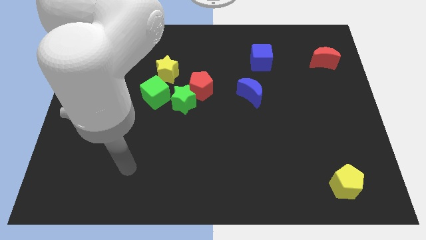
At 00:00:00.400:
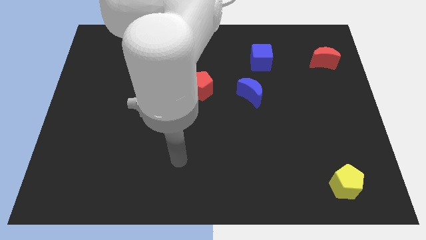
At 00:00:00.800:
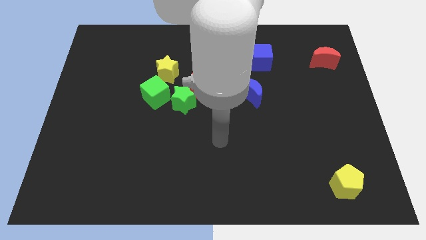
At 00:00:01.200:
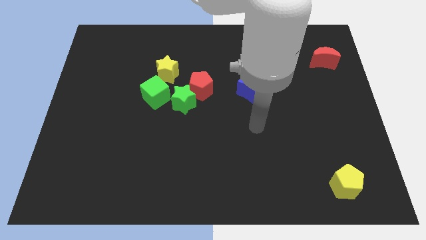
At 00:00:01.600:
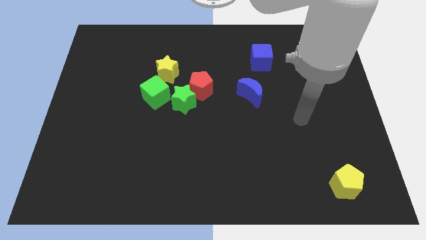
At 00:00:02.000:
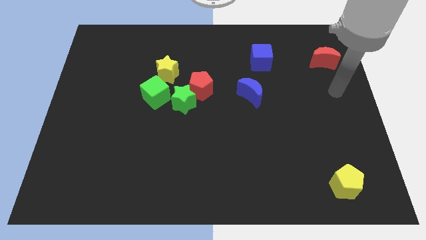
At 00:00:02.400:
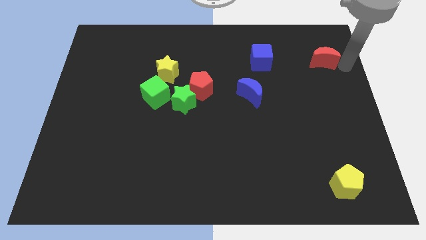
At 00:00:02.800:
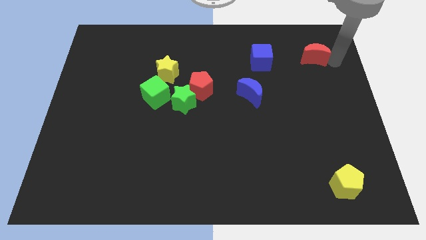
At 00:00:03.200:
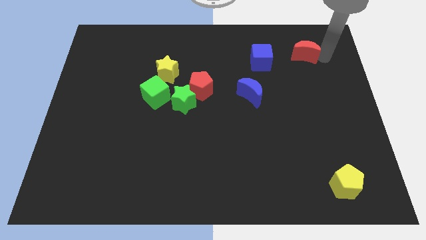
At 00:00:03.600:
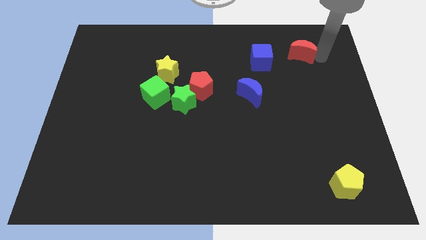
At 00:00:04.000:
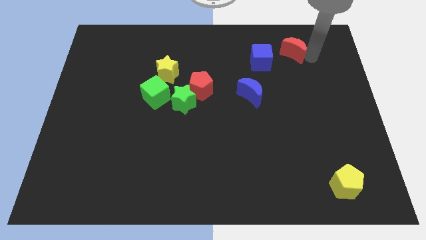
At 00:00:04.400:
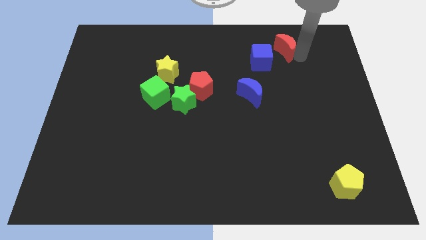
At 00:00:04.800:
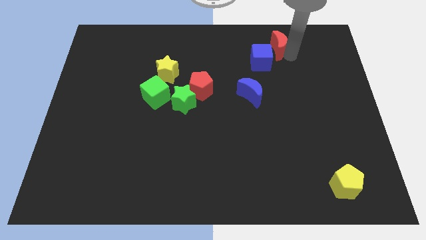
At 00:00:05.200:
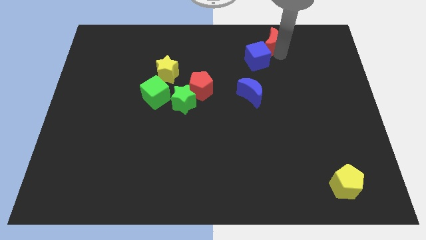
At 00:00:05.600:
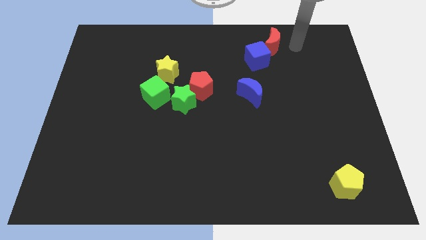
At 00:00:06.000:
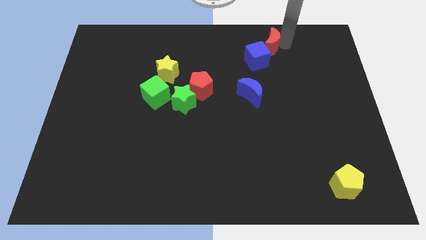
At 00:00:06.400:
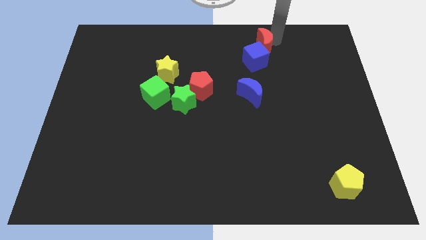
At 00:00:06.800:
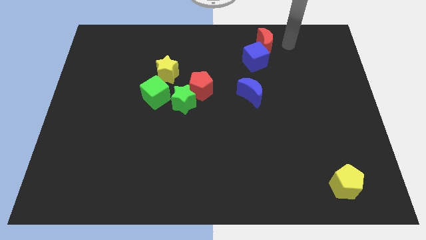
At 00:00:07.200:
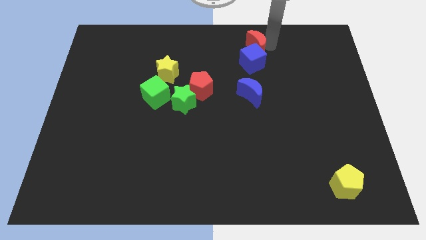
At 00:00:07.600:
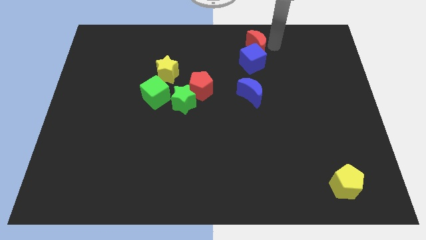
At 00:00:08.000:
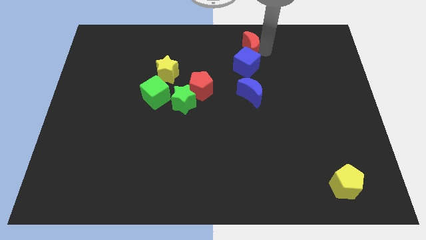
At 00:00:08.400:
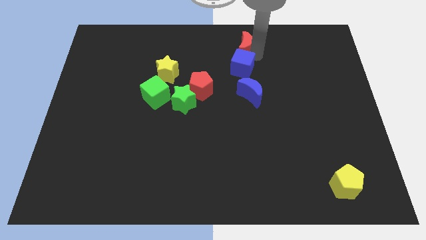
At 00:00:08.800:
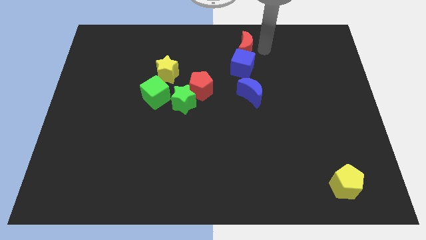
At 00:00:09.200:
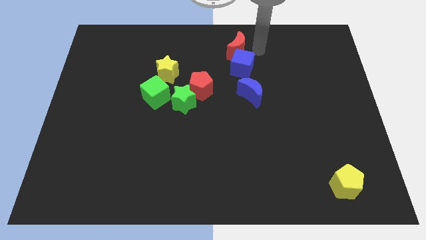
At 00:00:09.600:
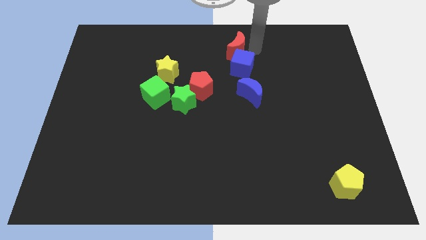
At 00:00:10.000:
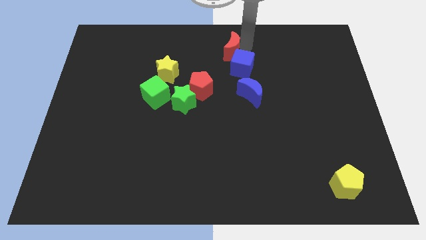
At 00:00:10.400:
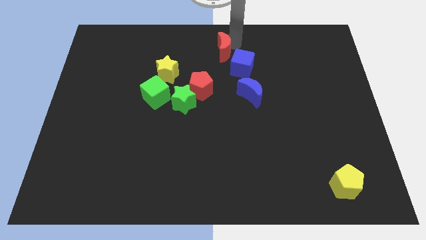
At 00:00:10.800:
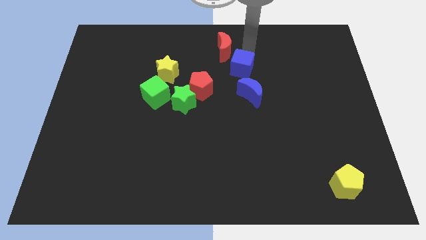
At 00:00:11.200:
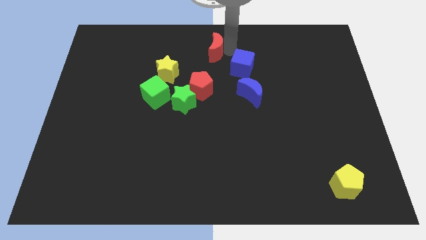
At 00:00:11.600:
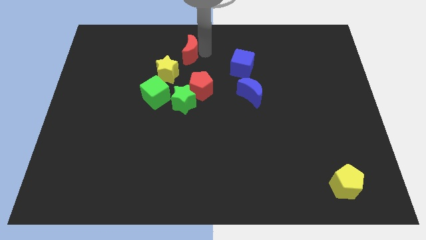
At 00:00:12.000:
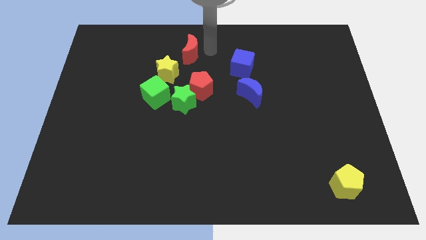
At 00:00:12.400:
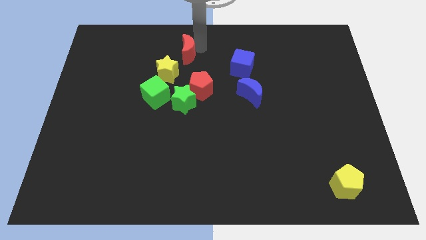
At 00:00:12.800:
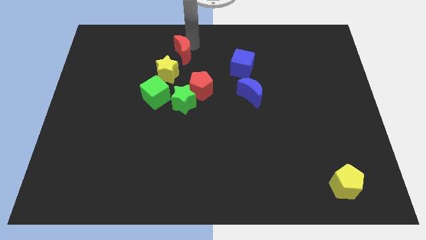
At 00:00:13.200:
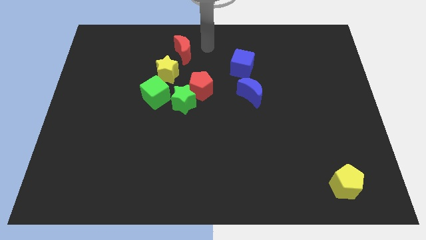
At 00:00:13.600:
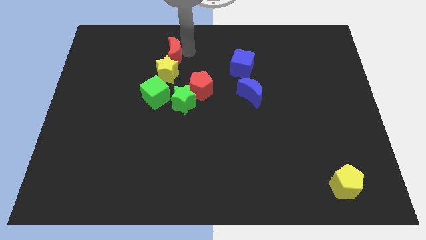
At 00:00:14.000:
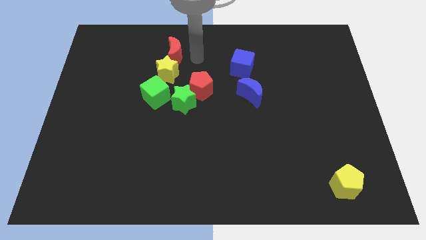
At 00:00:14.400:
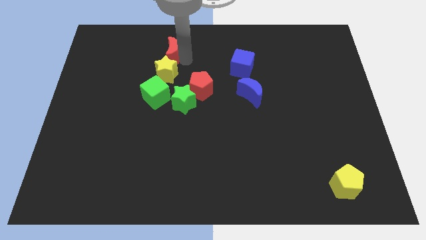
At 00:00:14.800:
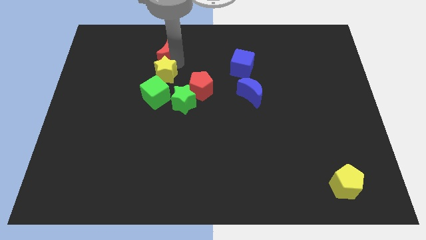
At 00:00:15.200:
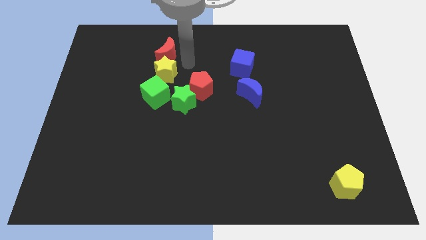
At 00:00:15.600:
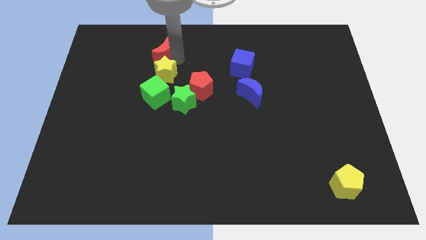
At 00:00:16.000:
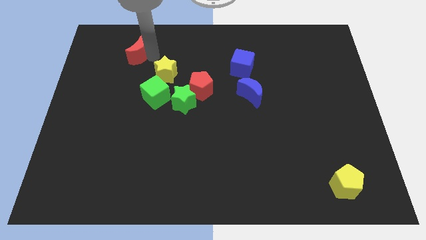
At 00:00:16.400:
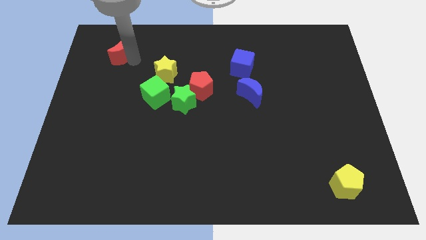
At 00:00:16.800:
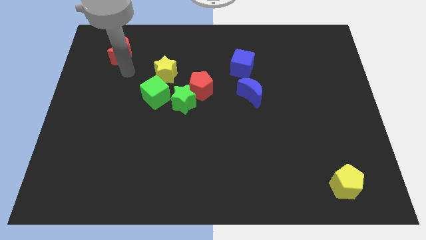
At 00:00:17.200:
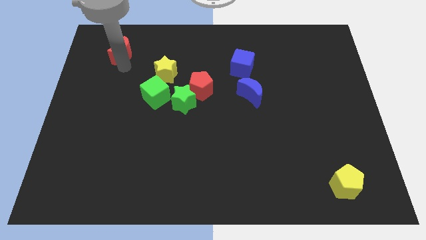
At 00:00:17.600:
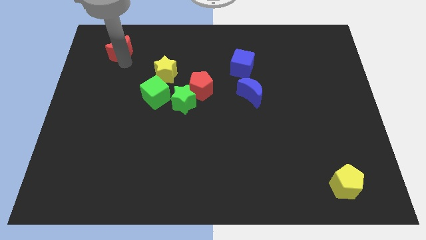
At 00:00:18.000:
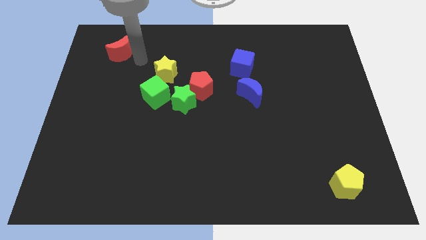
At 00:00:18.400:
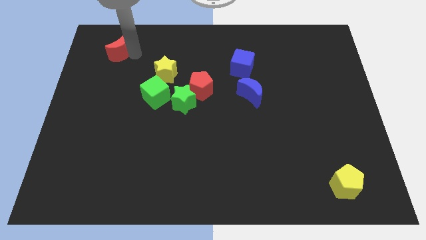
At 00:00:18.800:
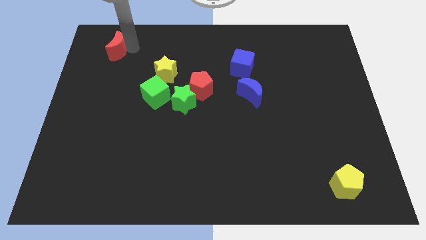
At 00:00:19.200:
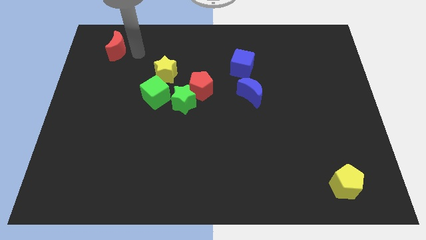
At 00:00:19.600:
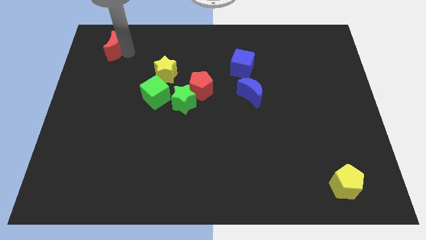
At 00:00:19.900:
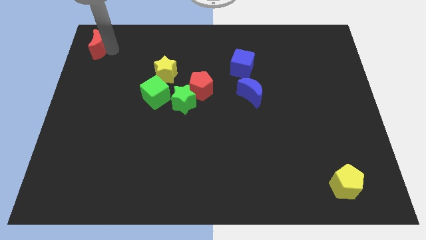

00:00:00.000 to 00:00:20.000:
move the red moon to the top left

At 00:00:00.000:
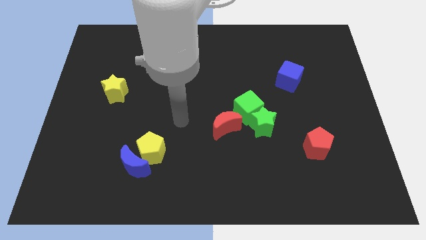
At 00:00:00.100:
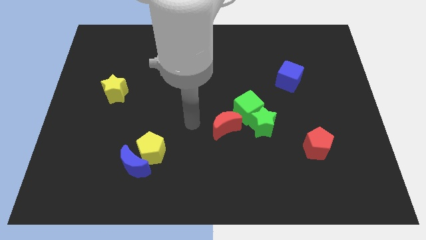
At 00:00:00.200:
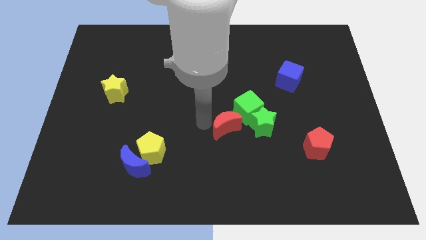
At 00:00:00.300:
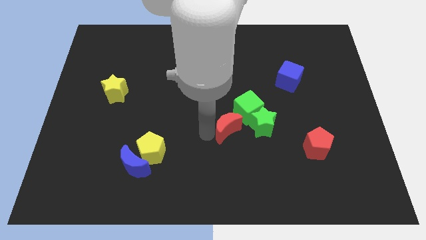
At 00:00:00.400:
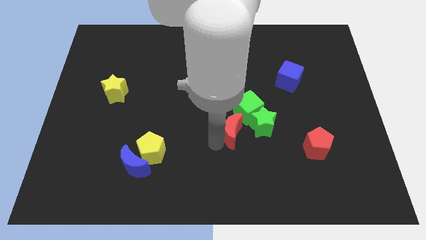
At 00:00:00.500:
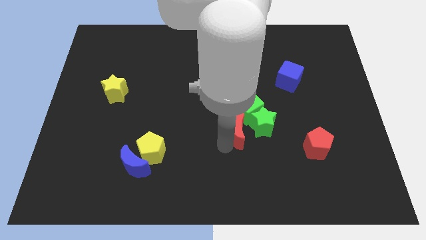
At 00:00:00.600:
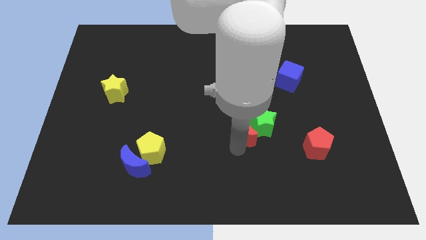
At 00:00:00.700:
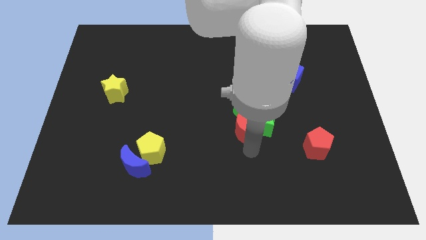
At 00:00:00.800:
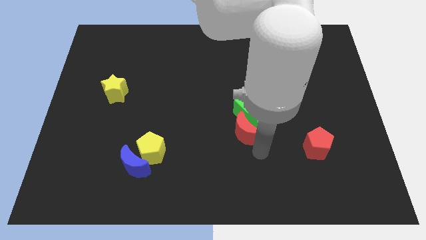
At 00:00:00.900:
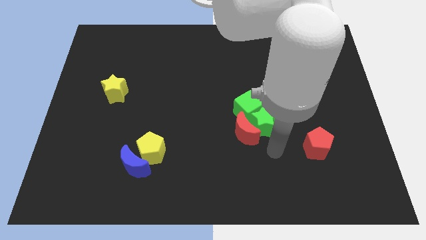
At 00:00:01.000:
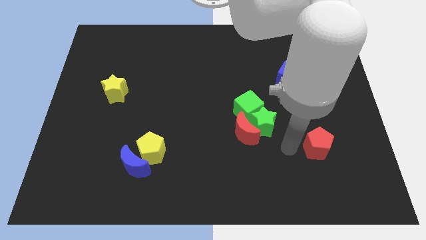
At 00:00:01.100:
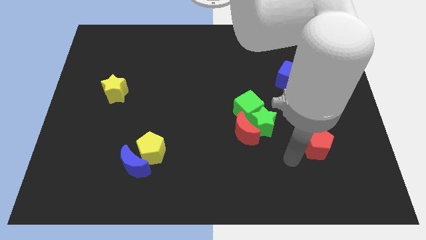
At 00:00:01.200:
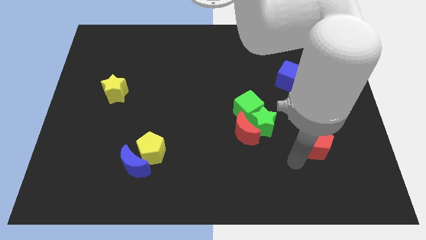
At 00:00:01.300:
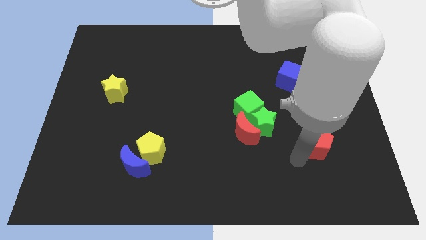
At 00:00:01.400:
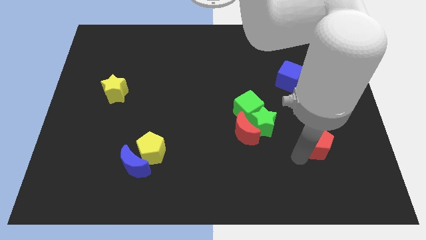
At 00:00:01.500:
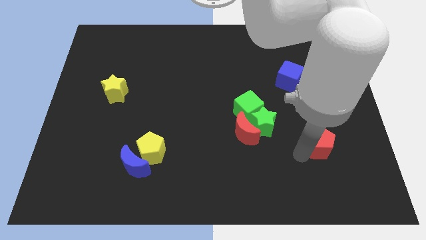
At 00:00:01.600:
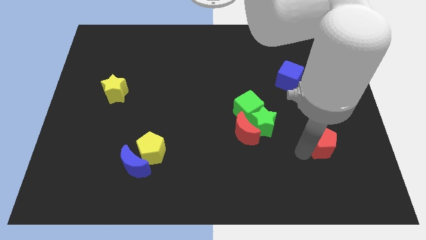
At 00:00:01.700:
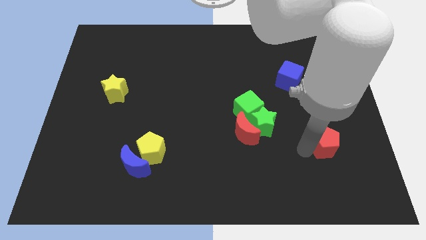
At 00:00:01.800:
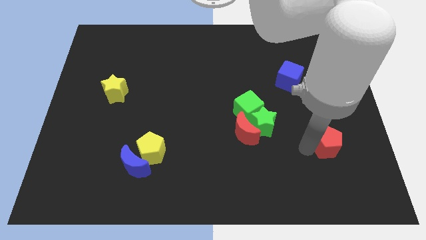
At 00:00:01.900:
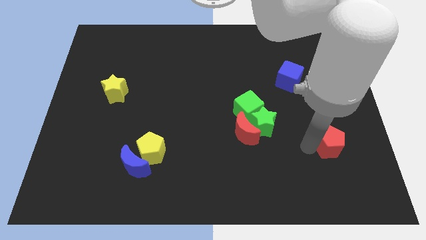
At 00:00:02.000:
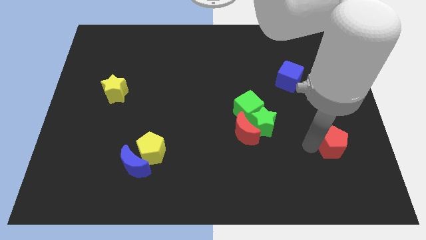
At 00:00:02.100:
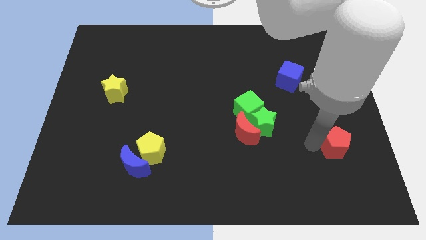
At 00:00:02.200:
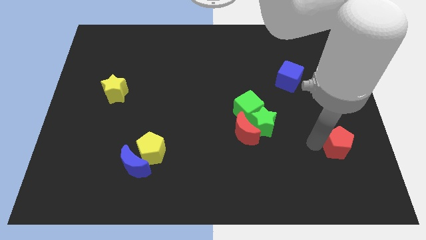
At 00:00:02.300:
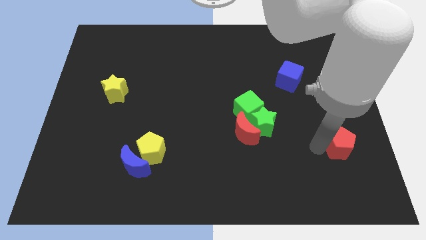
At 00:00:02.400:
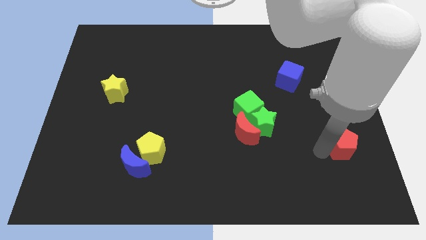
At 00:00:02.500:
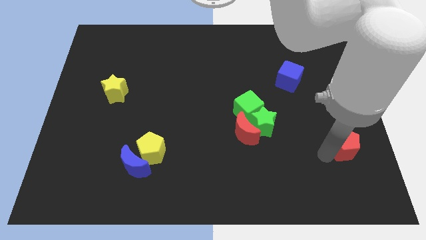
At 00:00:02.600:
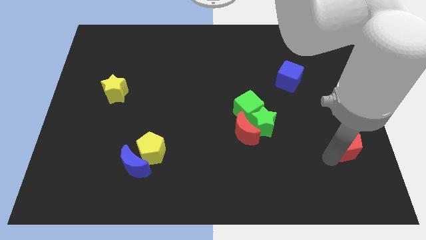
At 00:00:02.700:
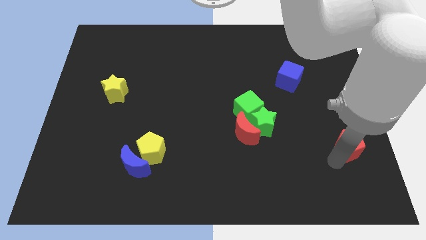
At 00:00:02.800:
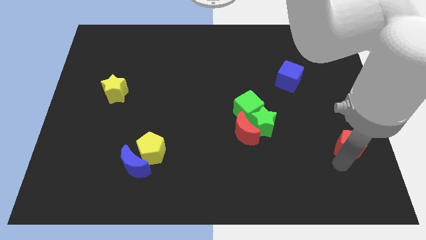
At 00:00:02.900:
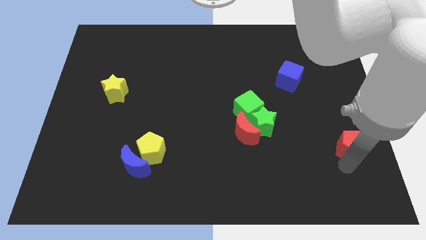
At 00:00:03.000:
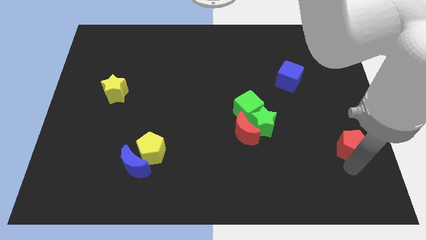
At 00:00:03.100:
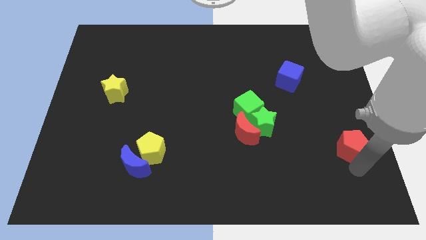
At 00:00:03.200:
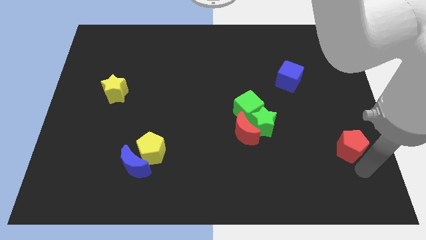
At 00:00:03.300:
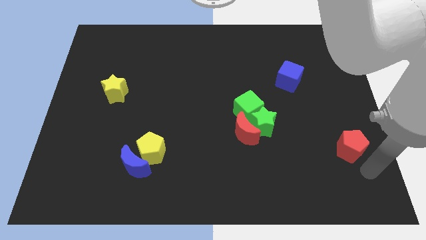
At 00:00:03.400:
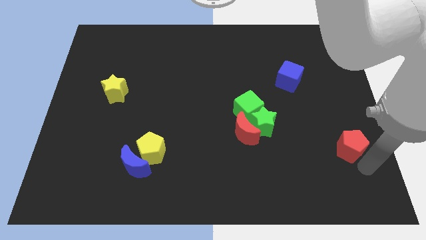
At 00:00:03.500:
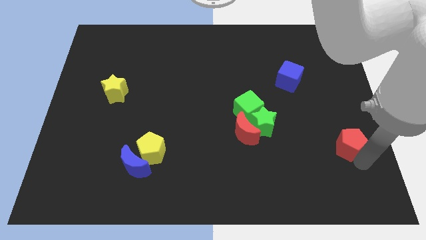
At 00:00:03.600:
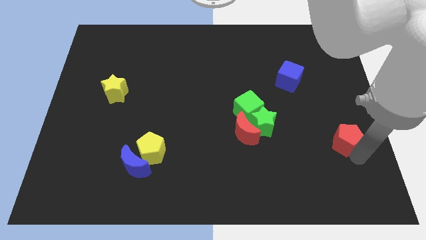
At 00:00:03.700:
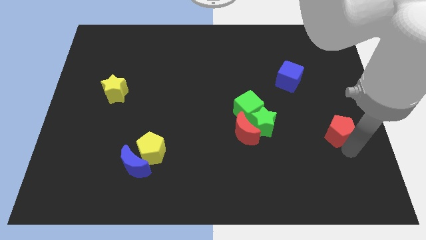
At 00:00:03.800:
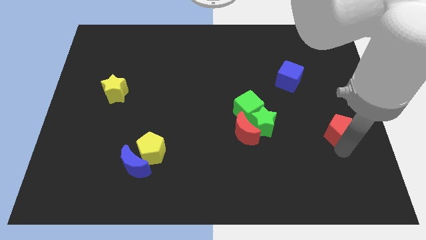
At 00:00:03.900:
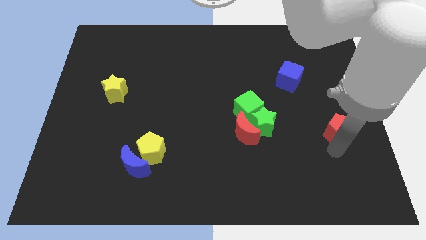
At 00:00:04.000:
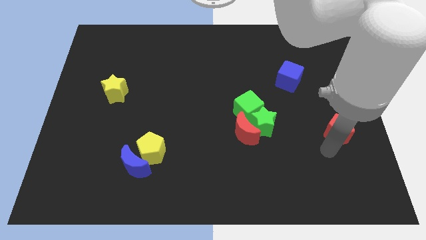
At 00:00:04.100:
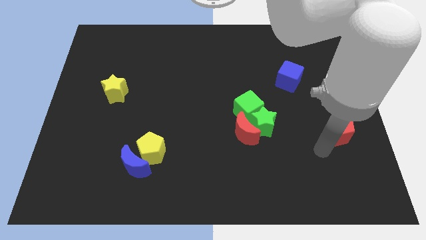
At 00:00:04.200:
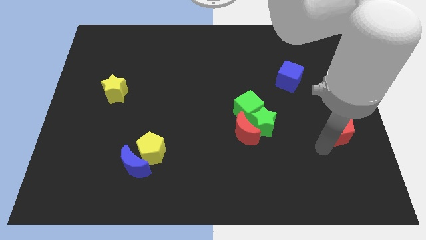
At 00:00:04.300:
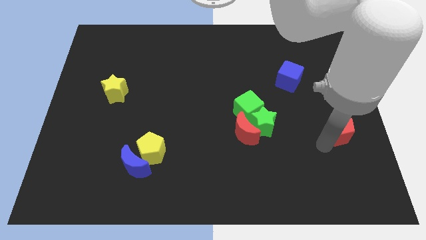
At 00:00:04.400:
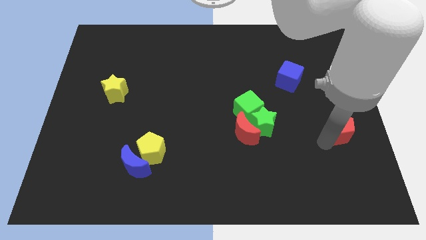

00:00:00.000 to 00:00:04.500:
slide the red pentagon to the right side
